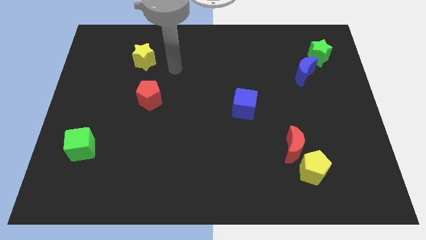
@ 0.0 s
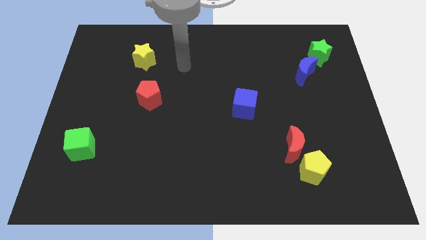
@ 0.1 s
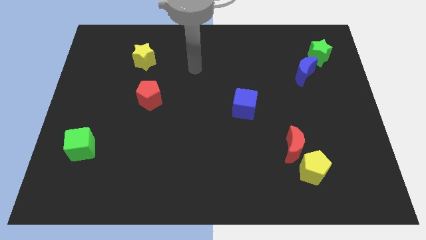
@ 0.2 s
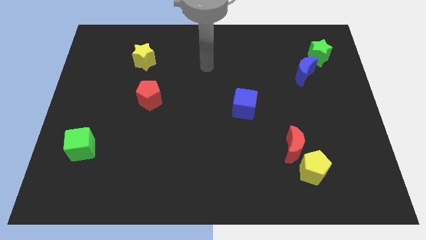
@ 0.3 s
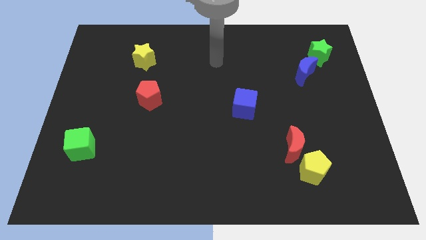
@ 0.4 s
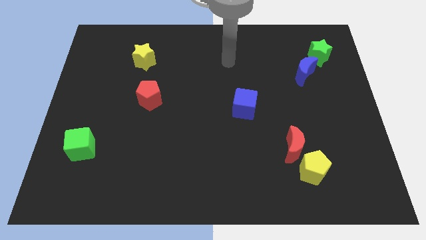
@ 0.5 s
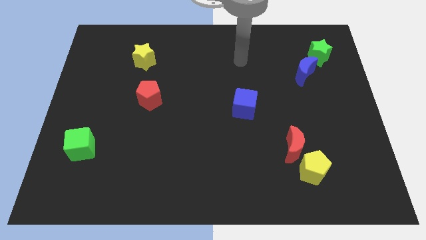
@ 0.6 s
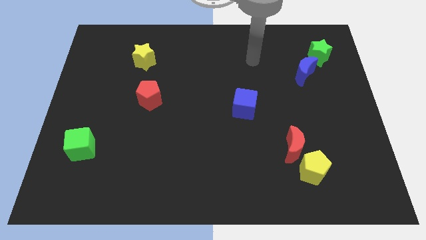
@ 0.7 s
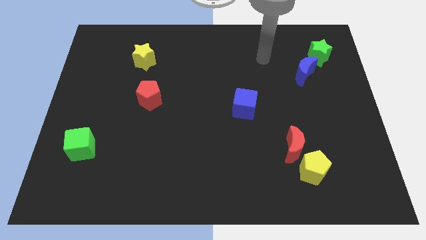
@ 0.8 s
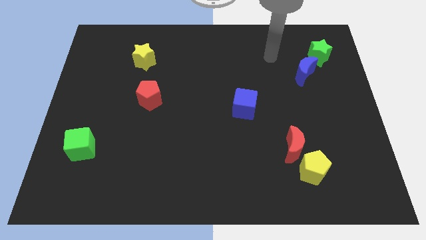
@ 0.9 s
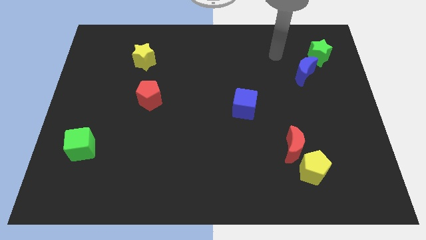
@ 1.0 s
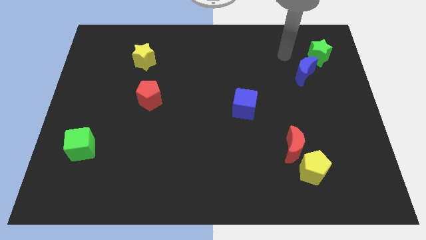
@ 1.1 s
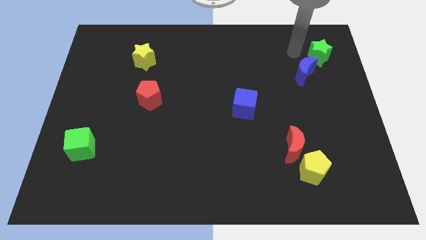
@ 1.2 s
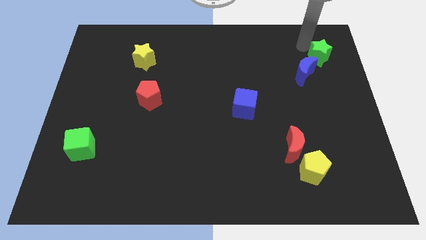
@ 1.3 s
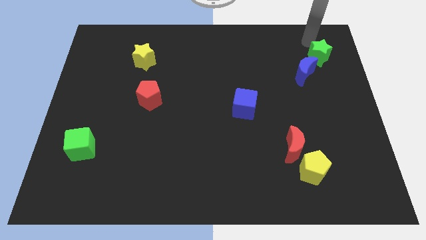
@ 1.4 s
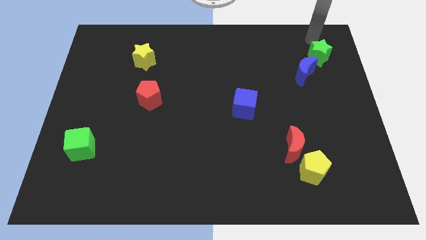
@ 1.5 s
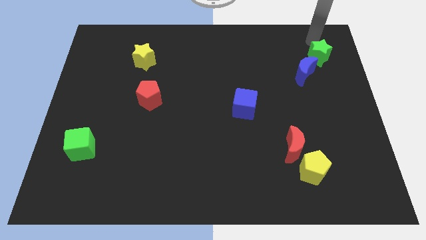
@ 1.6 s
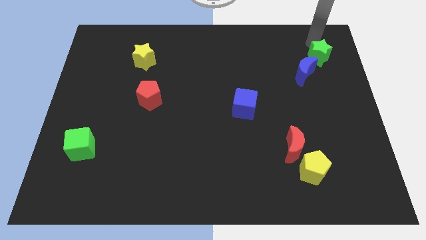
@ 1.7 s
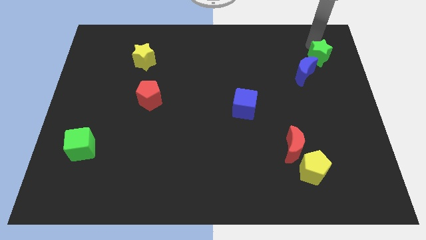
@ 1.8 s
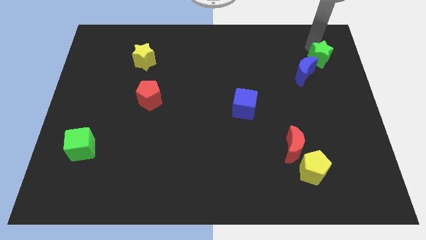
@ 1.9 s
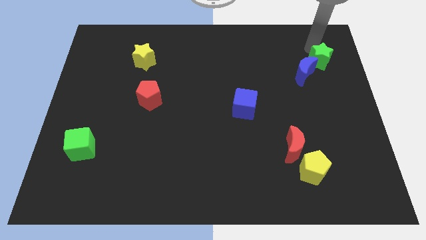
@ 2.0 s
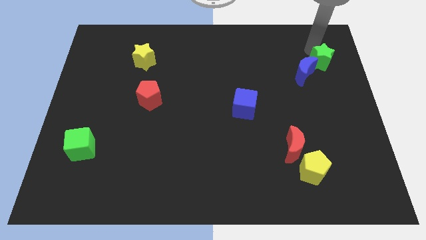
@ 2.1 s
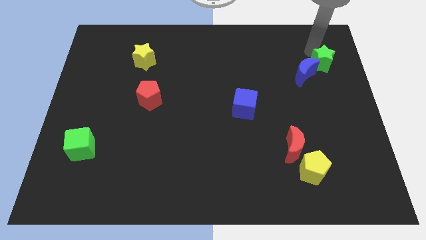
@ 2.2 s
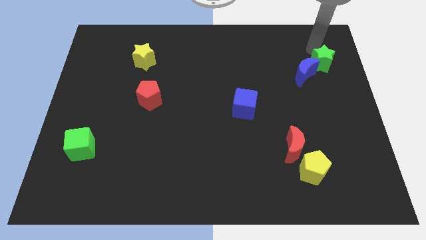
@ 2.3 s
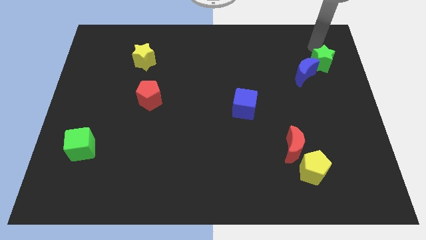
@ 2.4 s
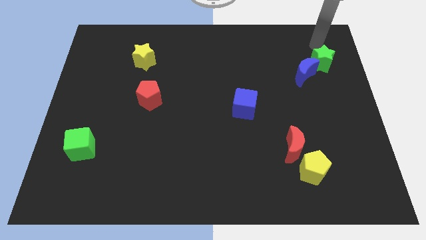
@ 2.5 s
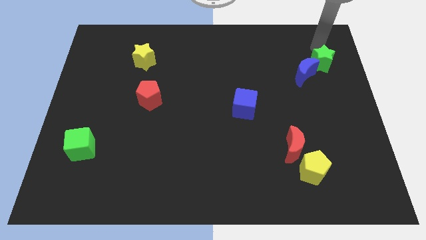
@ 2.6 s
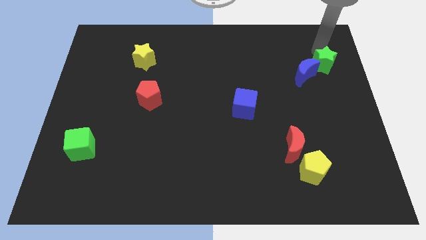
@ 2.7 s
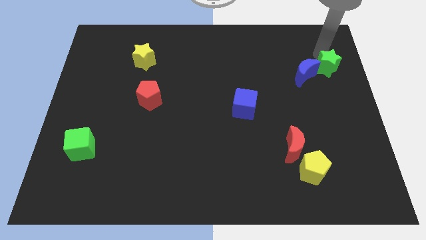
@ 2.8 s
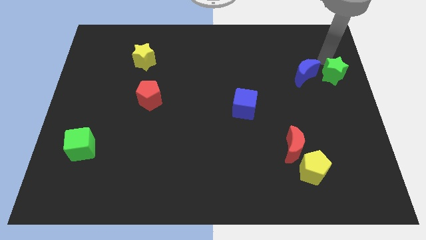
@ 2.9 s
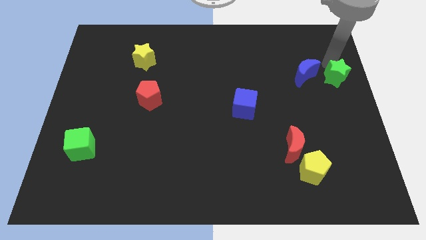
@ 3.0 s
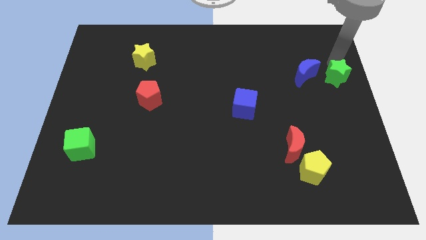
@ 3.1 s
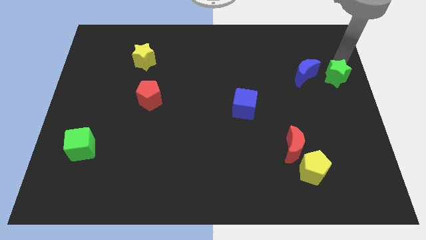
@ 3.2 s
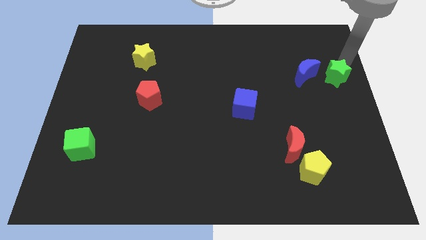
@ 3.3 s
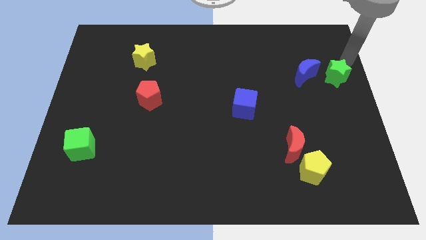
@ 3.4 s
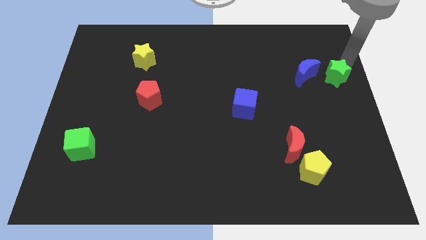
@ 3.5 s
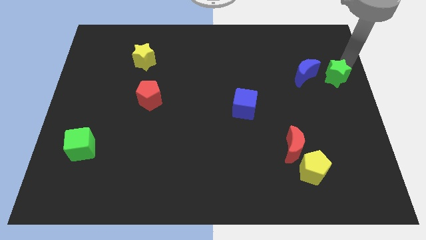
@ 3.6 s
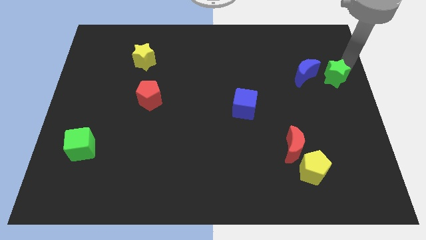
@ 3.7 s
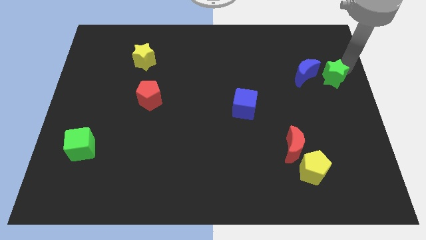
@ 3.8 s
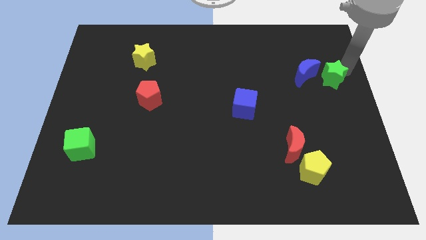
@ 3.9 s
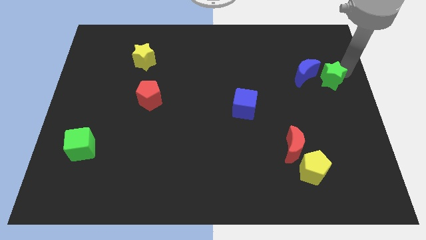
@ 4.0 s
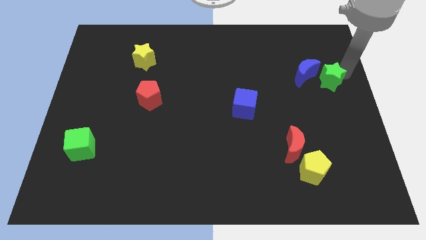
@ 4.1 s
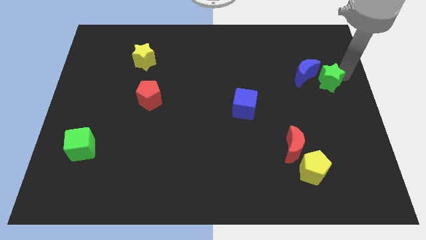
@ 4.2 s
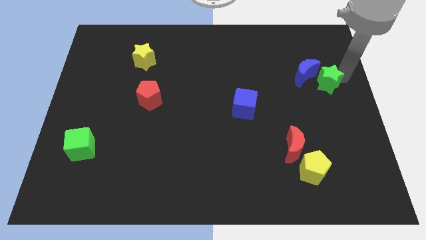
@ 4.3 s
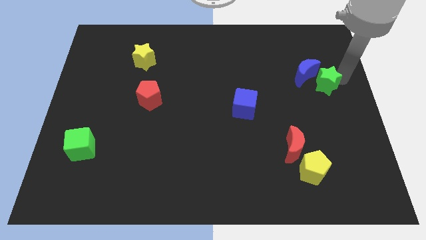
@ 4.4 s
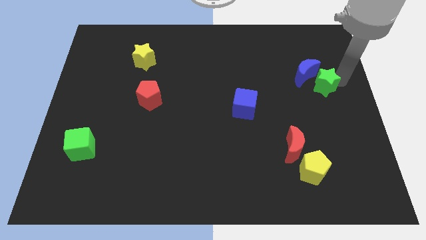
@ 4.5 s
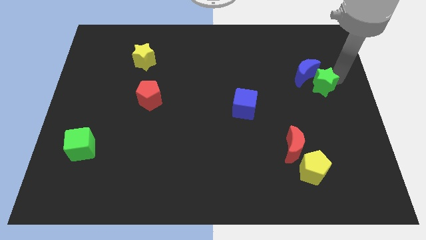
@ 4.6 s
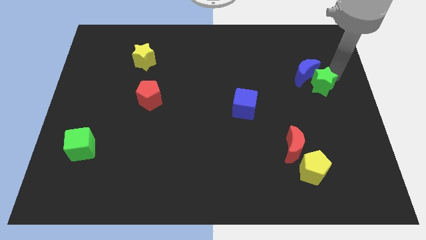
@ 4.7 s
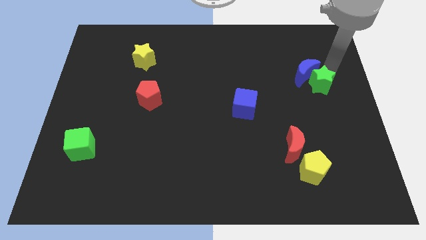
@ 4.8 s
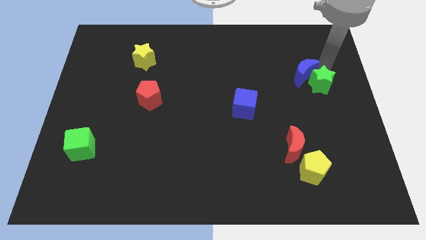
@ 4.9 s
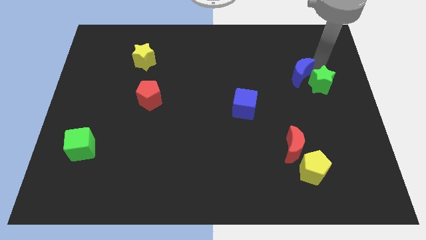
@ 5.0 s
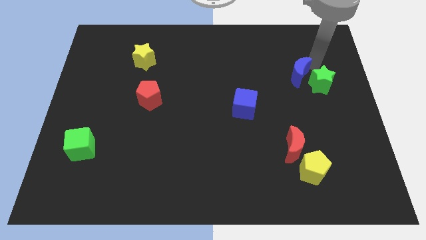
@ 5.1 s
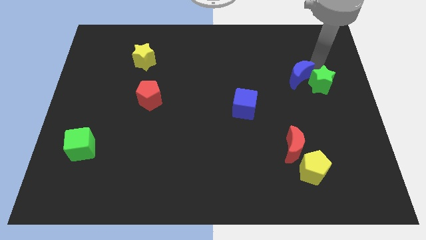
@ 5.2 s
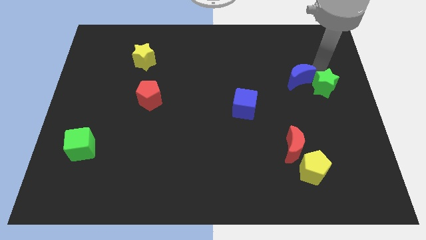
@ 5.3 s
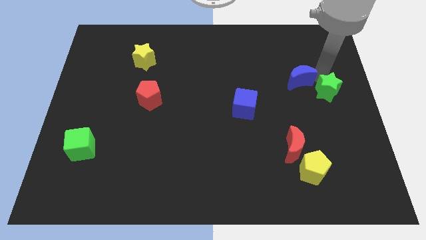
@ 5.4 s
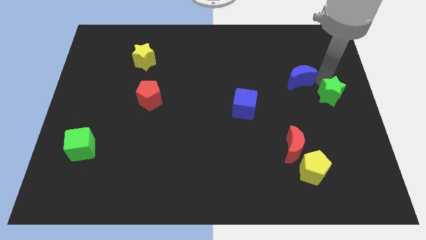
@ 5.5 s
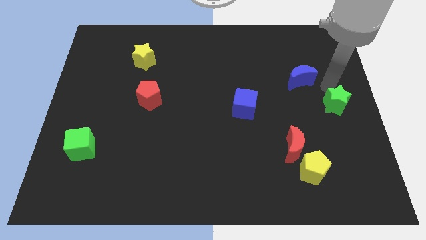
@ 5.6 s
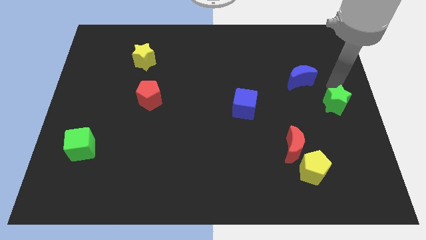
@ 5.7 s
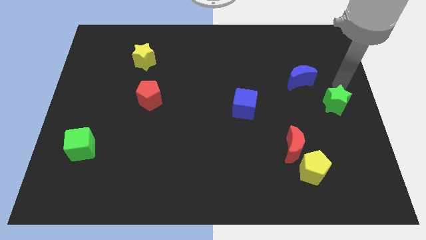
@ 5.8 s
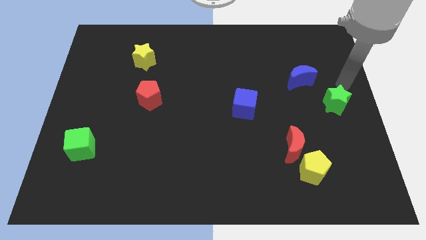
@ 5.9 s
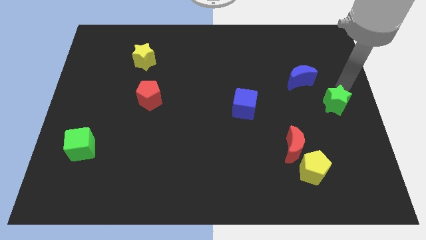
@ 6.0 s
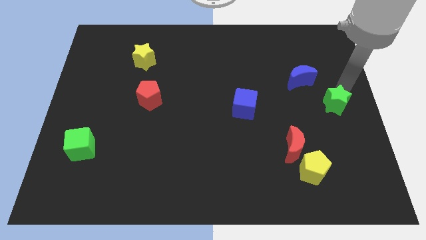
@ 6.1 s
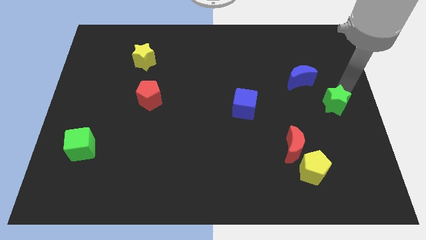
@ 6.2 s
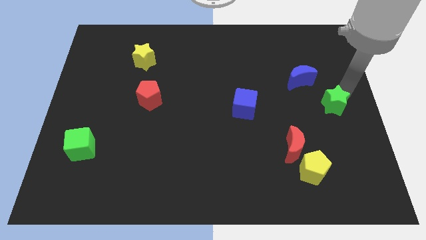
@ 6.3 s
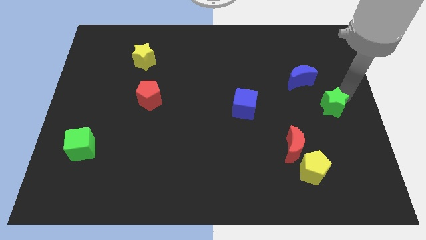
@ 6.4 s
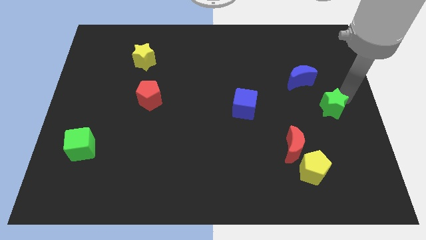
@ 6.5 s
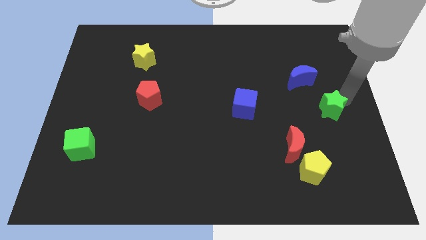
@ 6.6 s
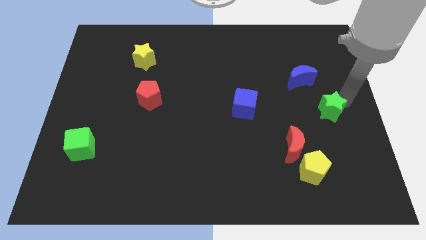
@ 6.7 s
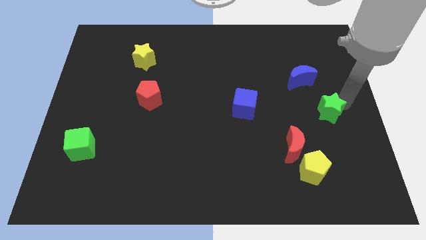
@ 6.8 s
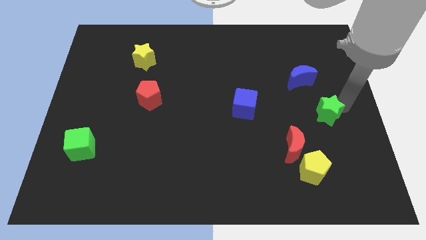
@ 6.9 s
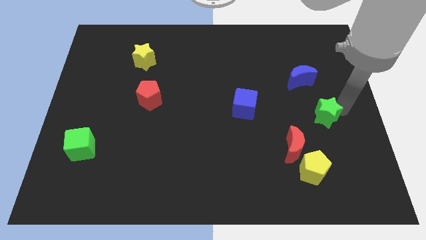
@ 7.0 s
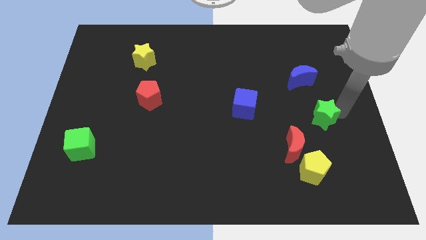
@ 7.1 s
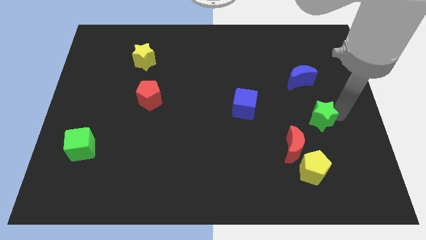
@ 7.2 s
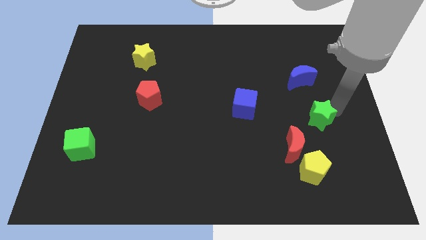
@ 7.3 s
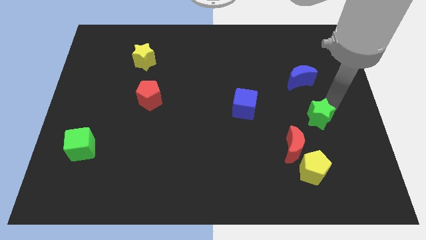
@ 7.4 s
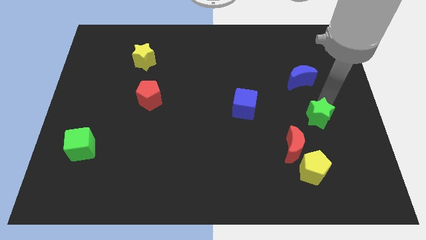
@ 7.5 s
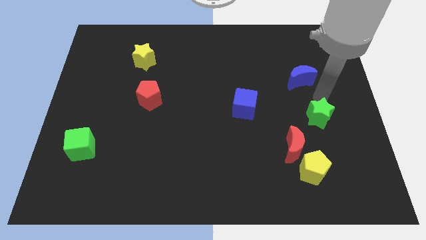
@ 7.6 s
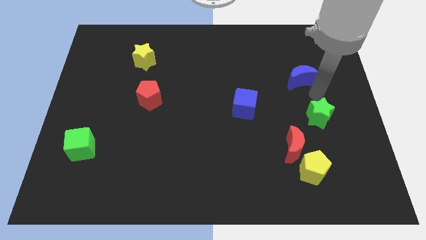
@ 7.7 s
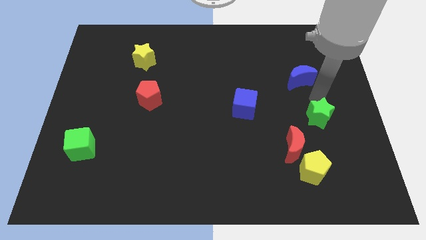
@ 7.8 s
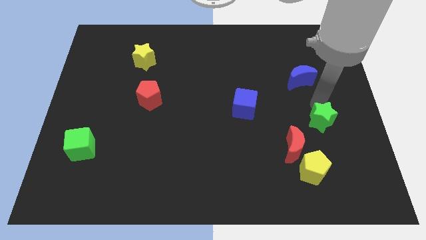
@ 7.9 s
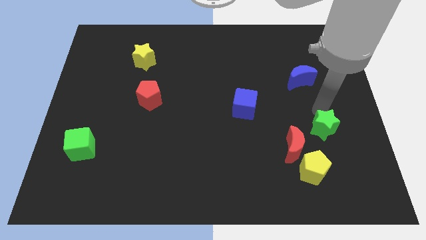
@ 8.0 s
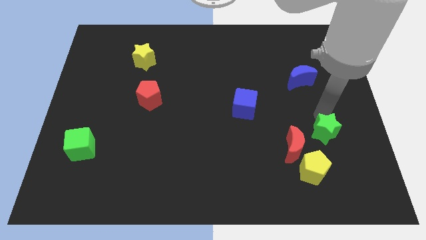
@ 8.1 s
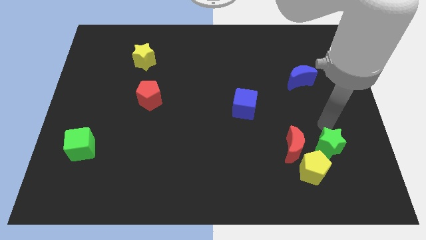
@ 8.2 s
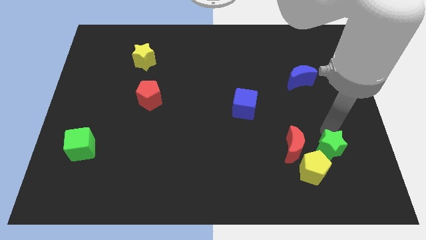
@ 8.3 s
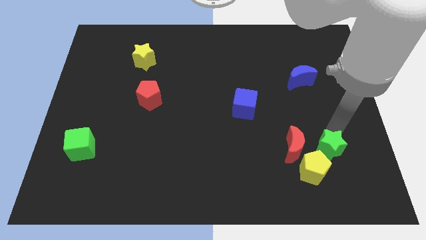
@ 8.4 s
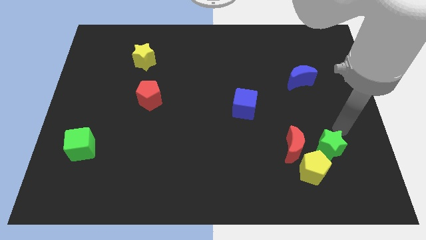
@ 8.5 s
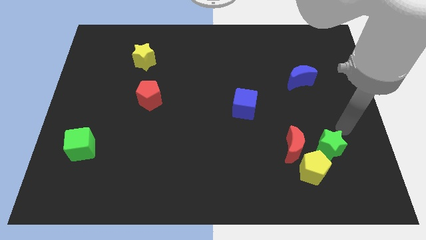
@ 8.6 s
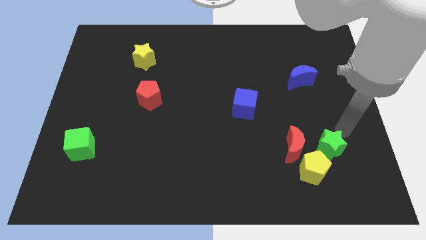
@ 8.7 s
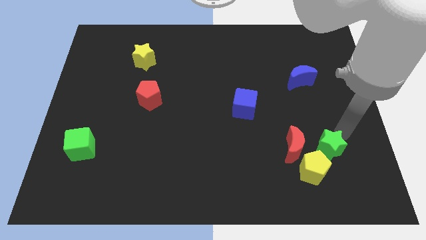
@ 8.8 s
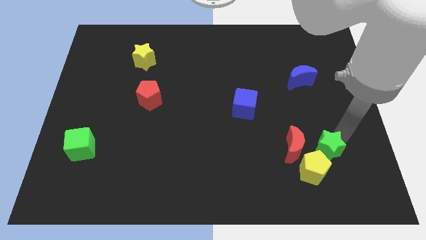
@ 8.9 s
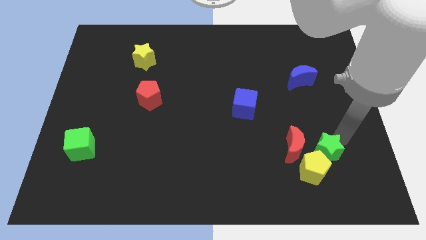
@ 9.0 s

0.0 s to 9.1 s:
put the green star towards the yellow pentagon
